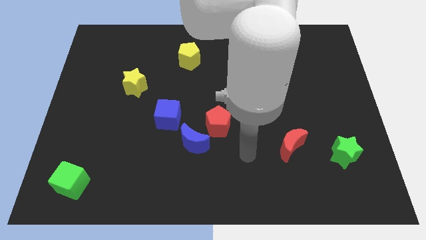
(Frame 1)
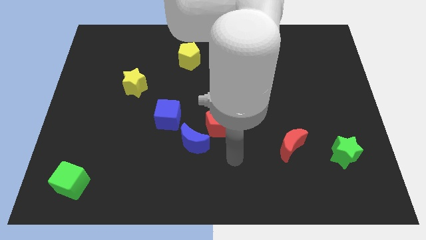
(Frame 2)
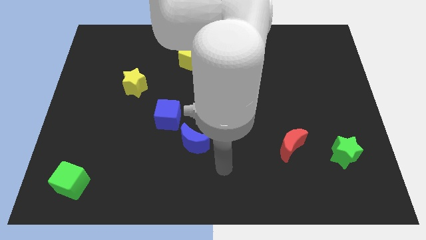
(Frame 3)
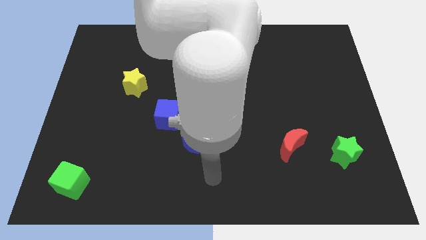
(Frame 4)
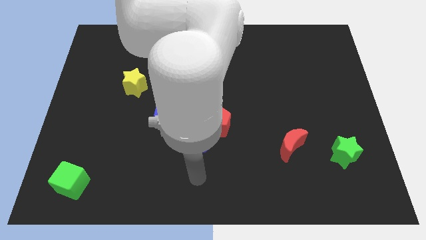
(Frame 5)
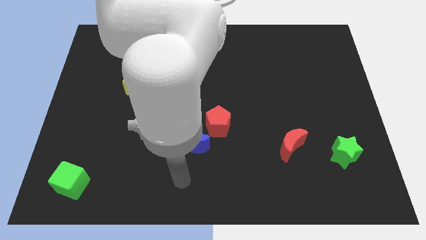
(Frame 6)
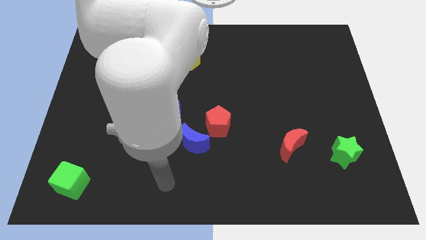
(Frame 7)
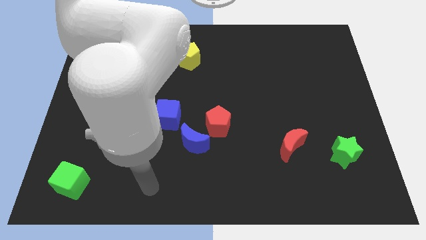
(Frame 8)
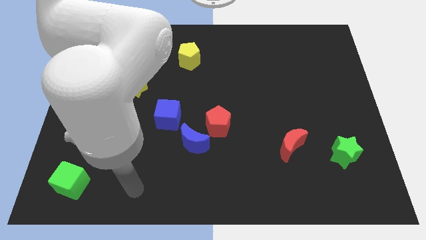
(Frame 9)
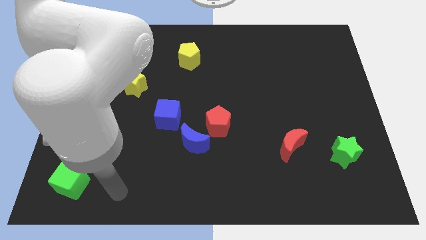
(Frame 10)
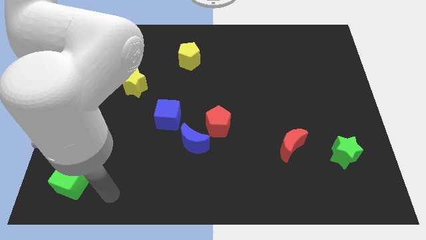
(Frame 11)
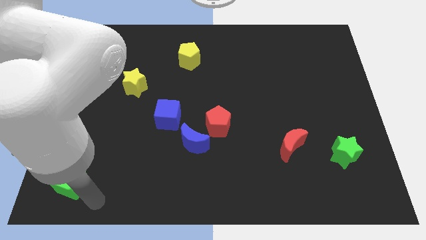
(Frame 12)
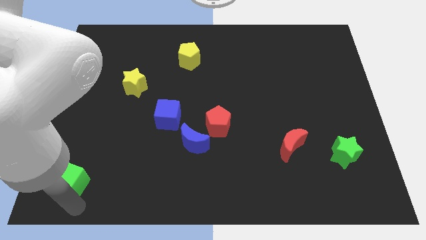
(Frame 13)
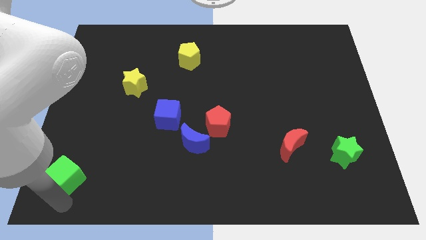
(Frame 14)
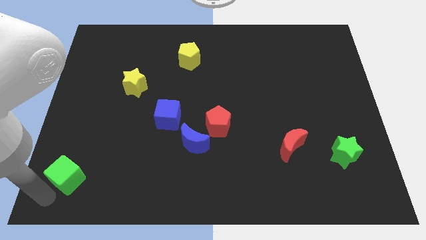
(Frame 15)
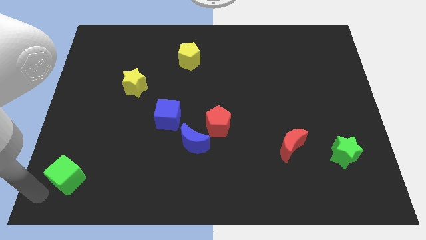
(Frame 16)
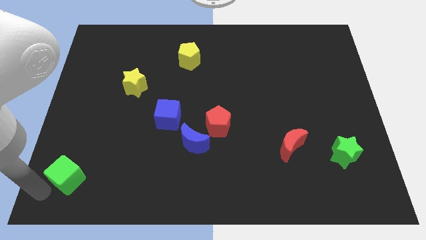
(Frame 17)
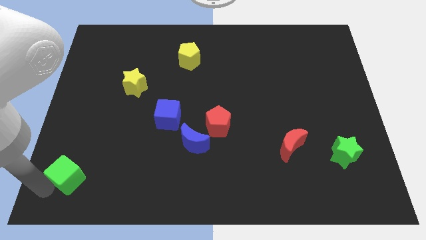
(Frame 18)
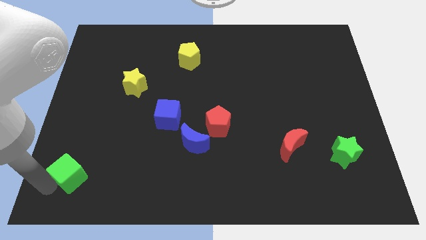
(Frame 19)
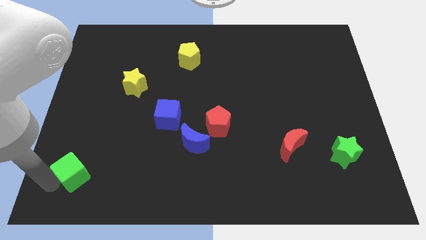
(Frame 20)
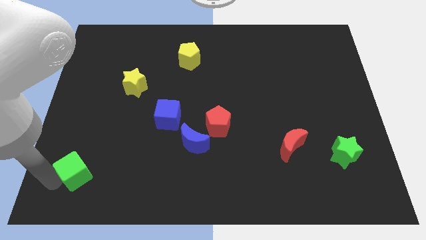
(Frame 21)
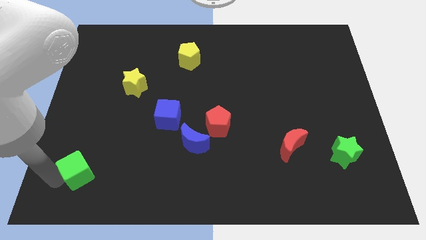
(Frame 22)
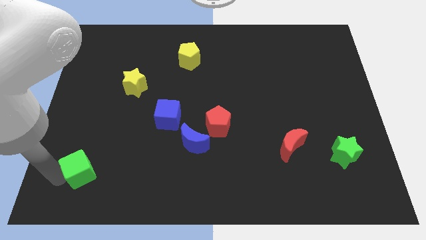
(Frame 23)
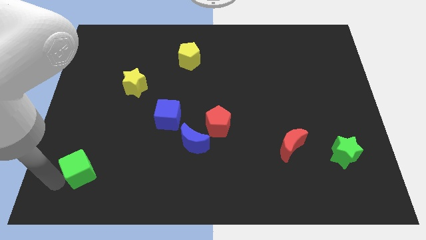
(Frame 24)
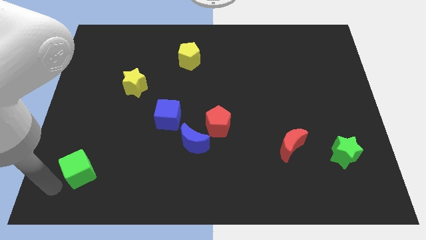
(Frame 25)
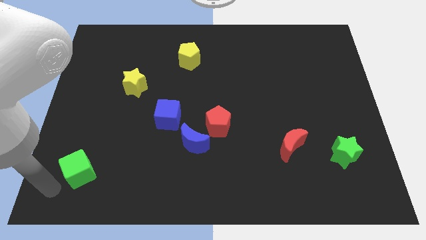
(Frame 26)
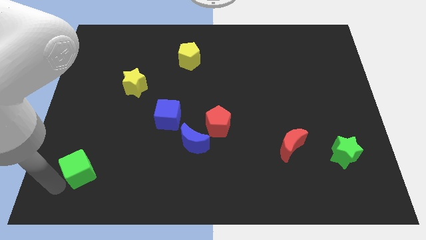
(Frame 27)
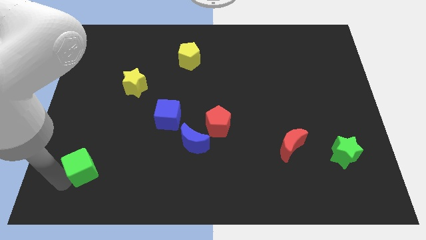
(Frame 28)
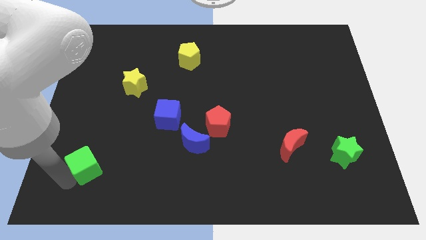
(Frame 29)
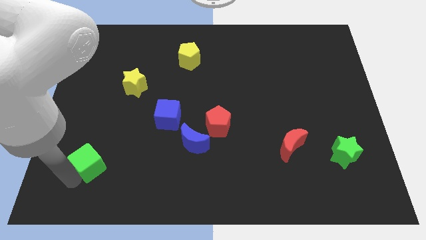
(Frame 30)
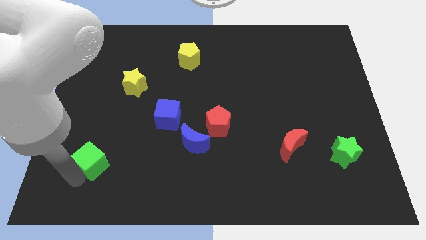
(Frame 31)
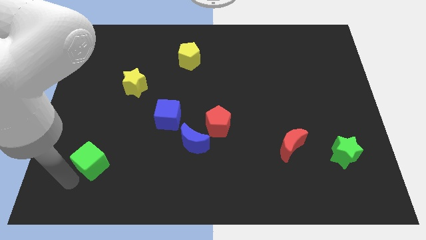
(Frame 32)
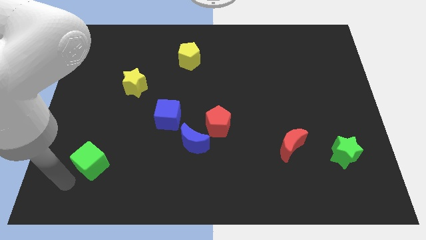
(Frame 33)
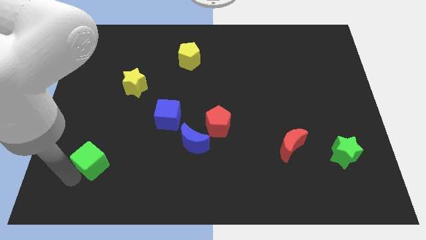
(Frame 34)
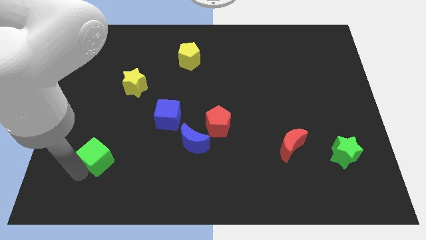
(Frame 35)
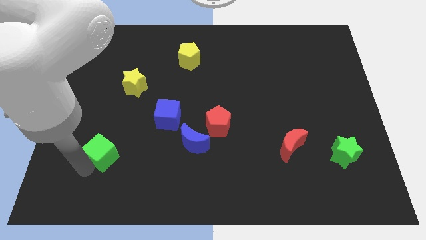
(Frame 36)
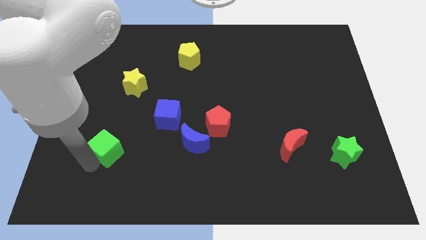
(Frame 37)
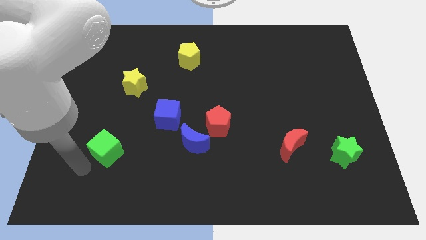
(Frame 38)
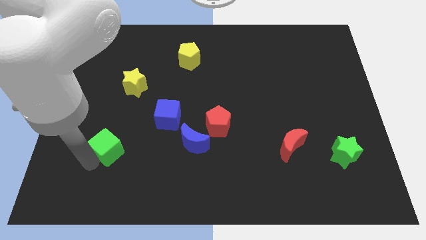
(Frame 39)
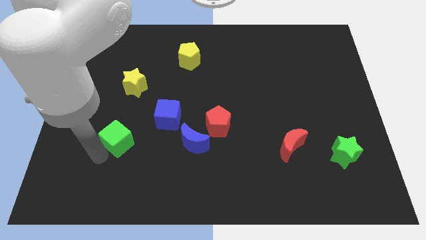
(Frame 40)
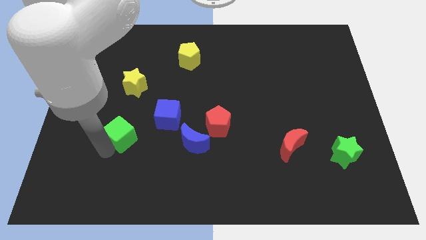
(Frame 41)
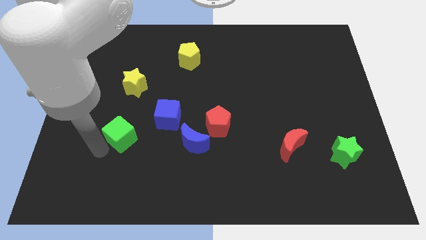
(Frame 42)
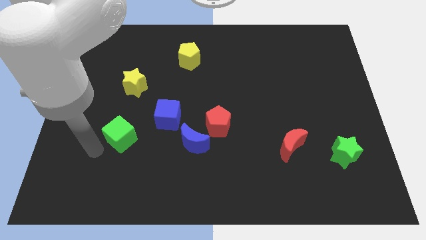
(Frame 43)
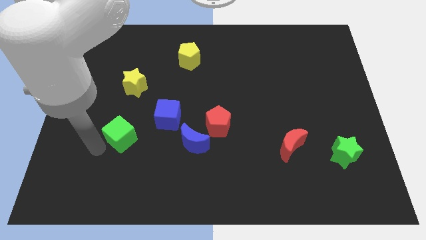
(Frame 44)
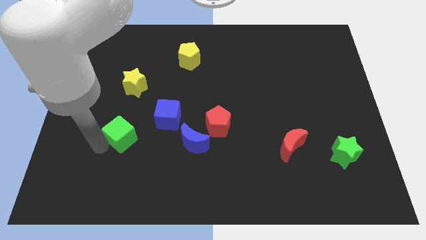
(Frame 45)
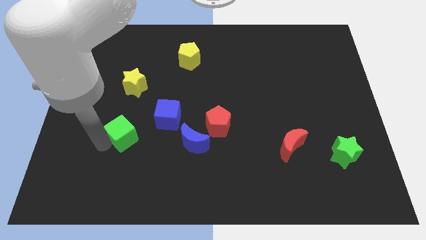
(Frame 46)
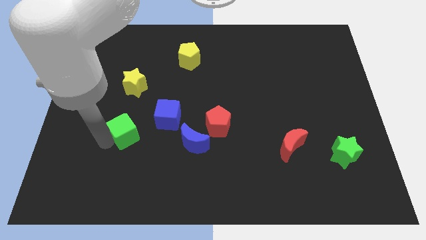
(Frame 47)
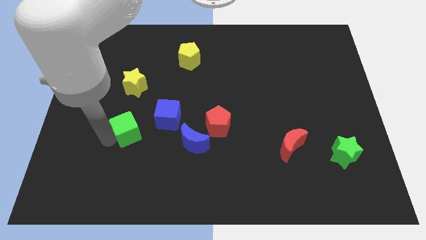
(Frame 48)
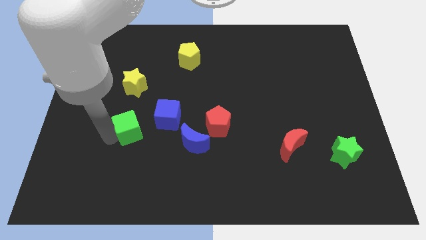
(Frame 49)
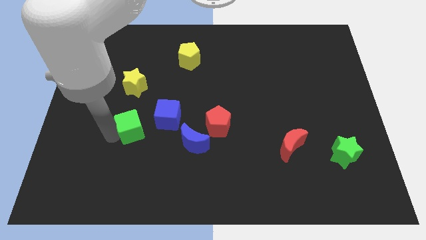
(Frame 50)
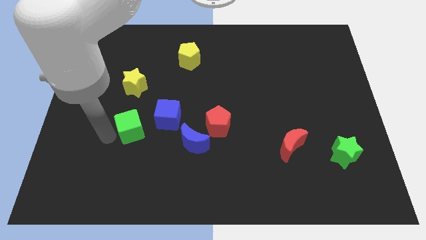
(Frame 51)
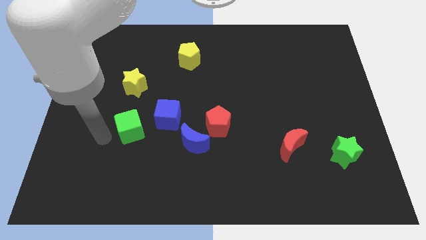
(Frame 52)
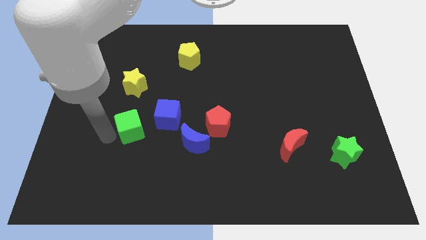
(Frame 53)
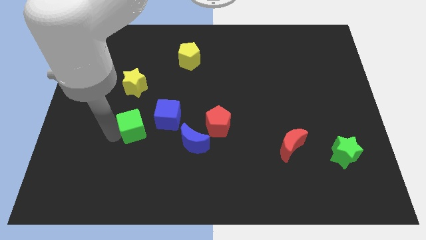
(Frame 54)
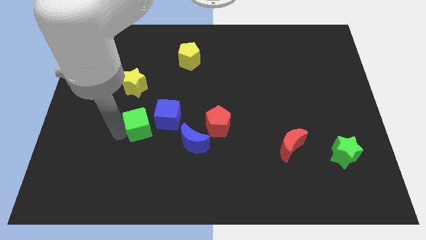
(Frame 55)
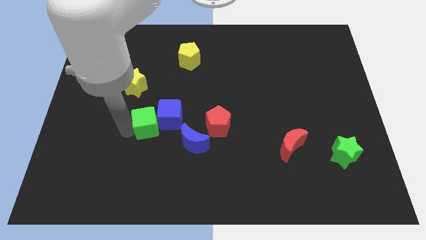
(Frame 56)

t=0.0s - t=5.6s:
move the green cube next to the blue cube

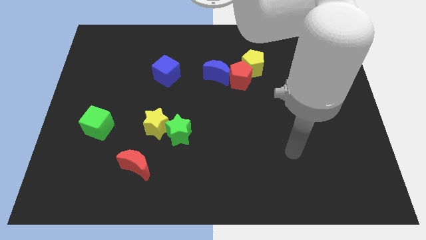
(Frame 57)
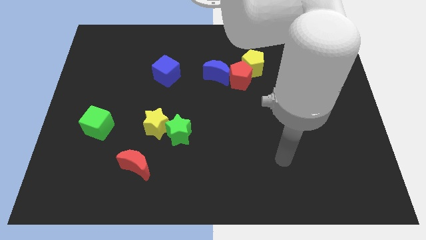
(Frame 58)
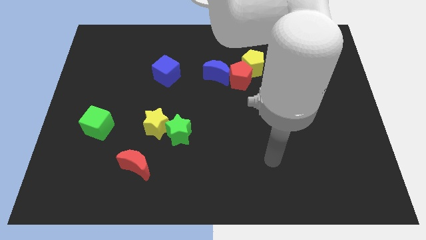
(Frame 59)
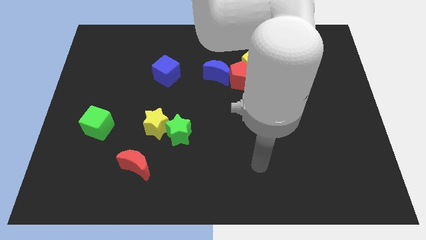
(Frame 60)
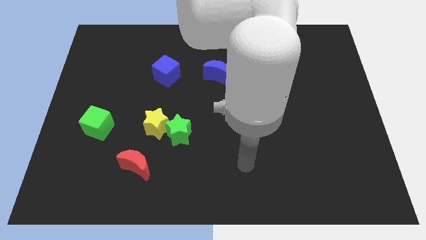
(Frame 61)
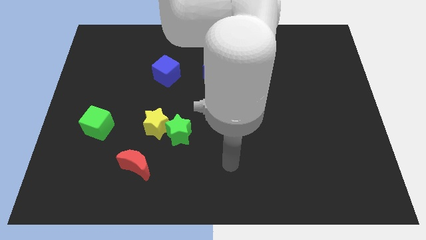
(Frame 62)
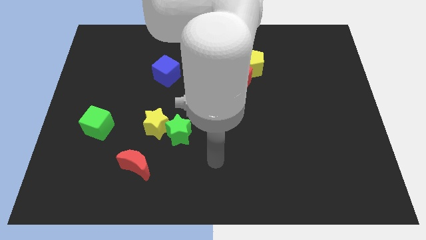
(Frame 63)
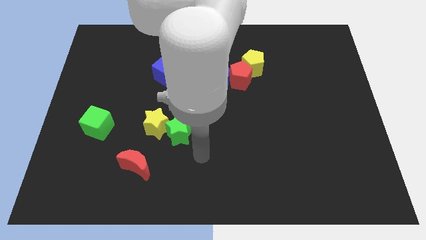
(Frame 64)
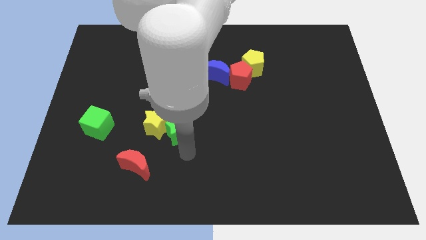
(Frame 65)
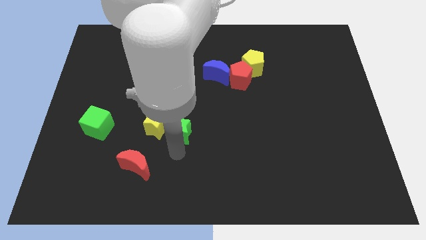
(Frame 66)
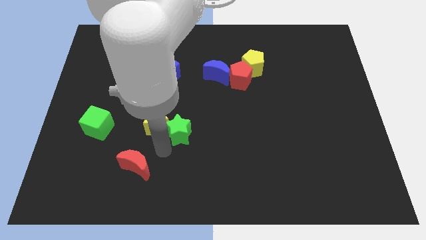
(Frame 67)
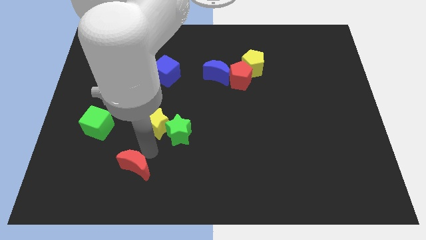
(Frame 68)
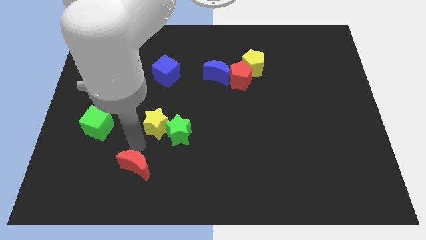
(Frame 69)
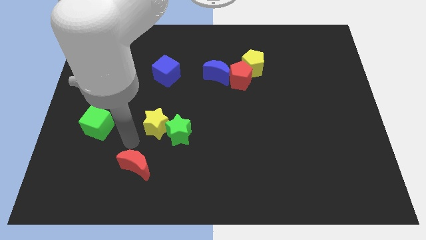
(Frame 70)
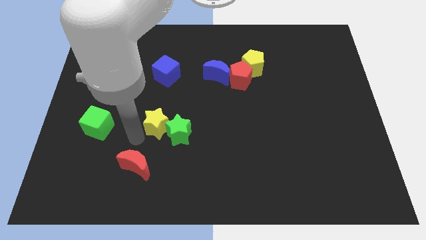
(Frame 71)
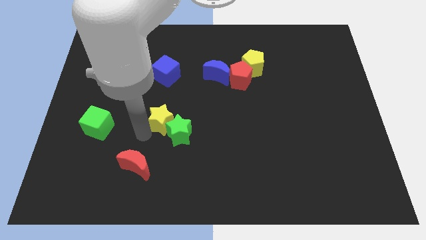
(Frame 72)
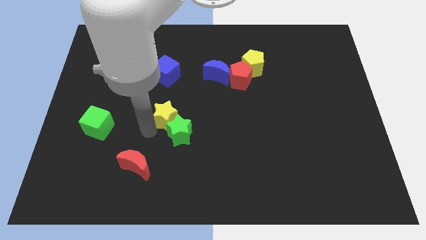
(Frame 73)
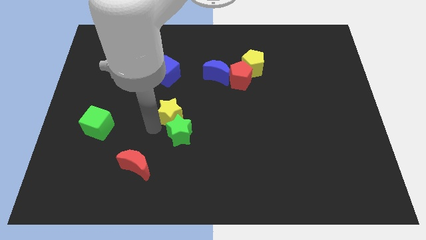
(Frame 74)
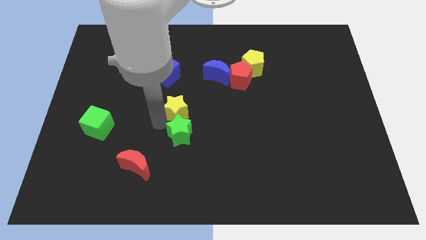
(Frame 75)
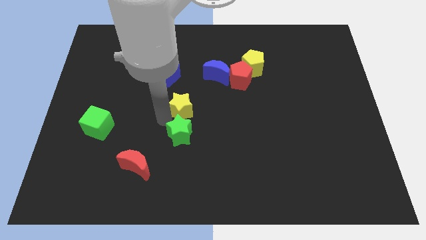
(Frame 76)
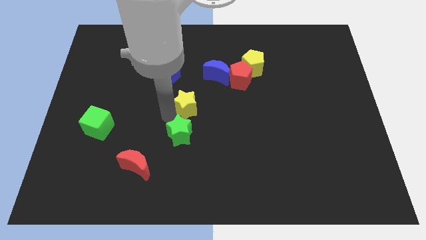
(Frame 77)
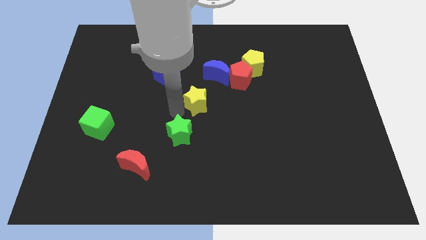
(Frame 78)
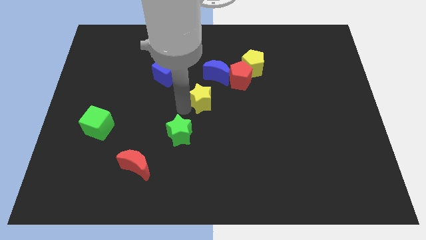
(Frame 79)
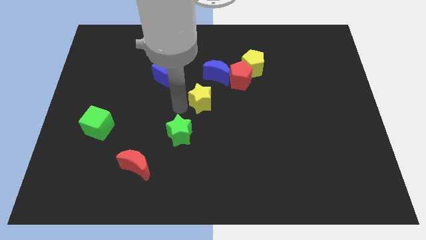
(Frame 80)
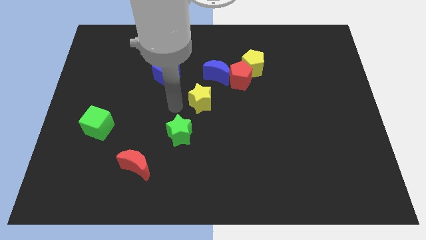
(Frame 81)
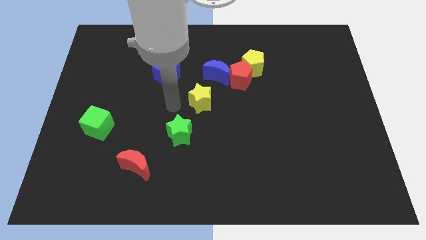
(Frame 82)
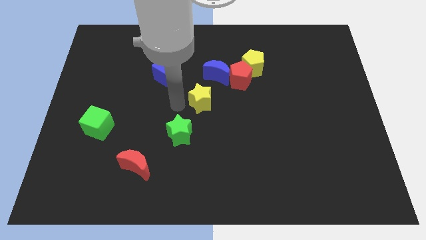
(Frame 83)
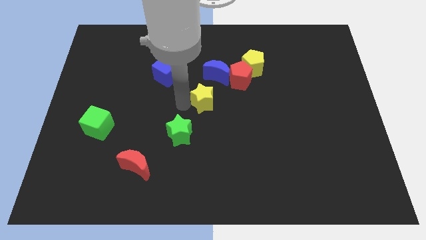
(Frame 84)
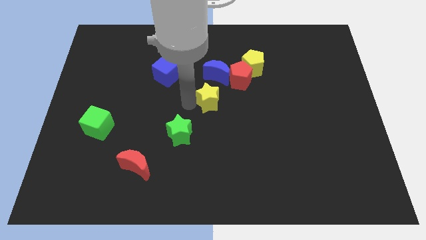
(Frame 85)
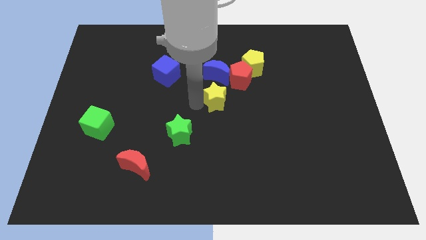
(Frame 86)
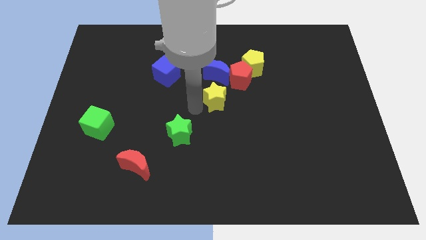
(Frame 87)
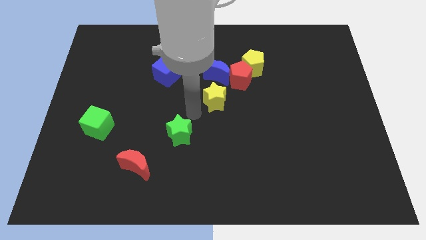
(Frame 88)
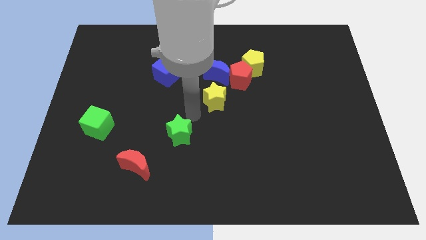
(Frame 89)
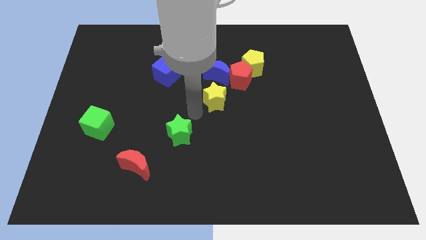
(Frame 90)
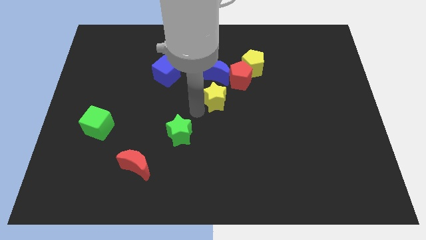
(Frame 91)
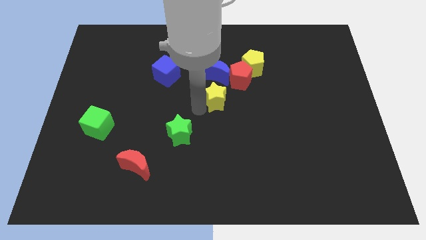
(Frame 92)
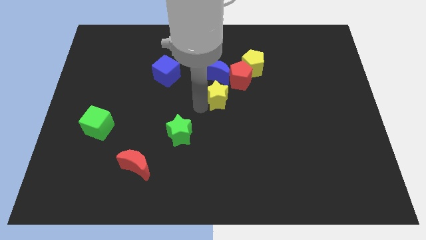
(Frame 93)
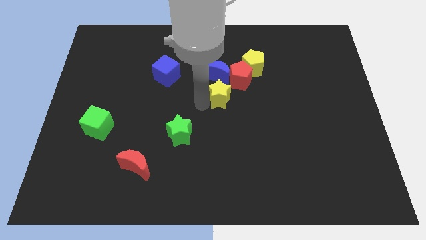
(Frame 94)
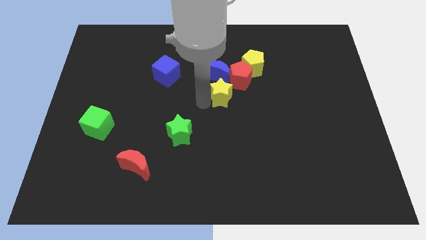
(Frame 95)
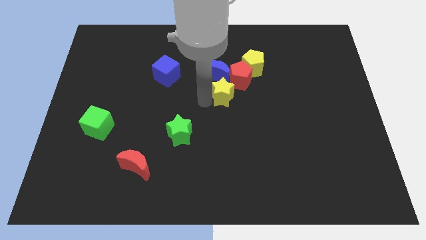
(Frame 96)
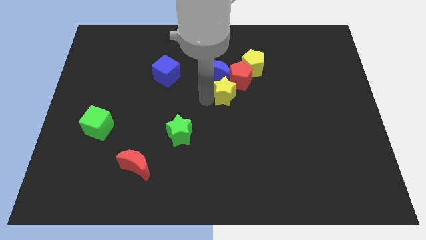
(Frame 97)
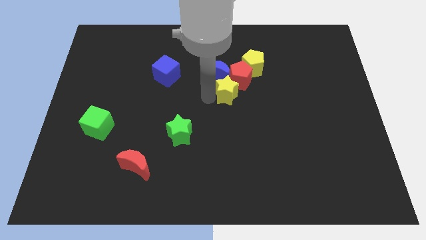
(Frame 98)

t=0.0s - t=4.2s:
push the yellow star to the red pentagon
